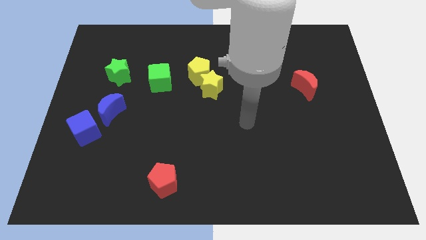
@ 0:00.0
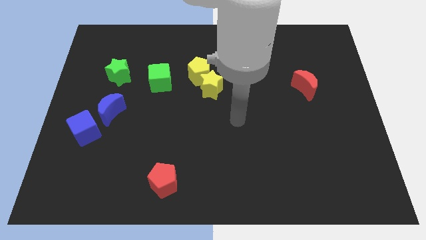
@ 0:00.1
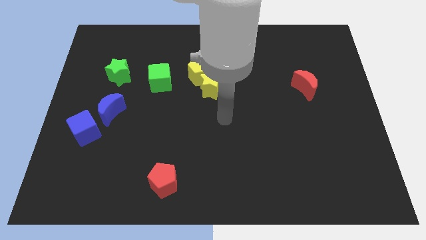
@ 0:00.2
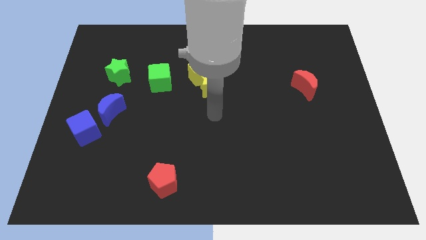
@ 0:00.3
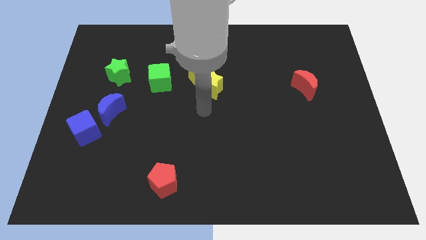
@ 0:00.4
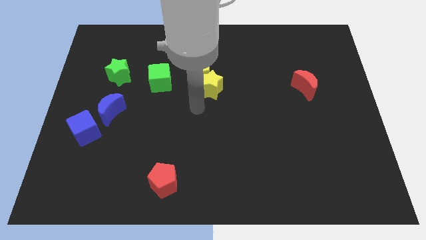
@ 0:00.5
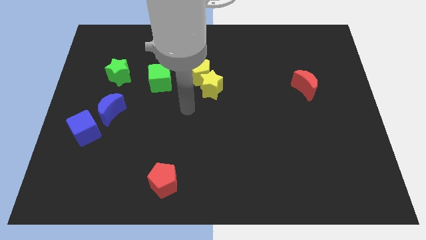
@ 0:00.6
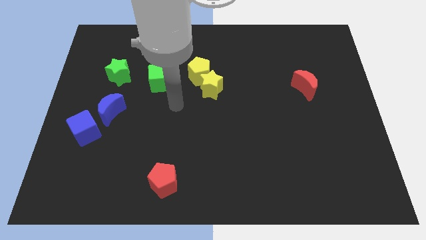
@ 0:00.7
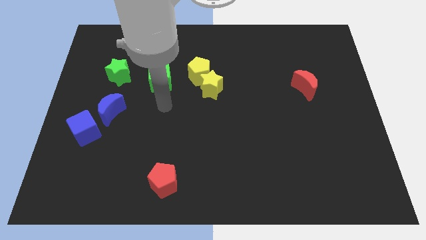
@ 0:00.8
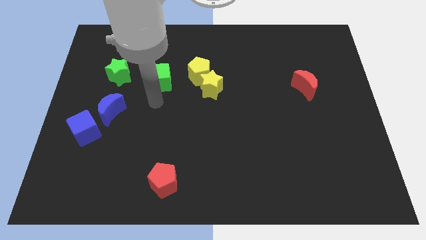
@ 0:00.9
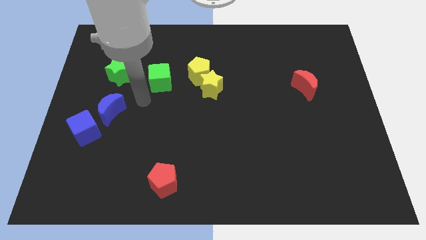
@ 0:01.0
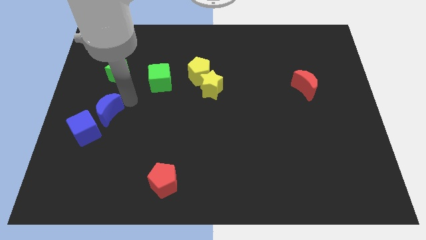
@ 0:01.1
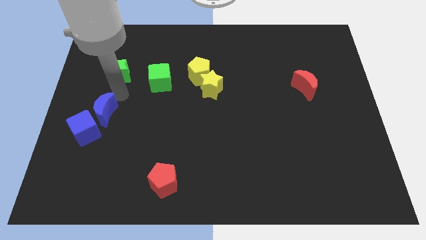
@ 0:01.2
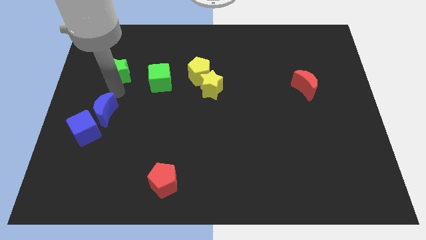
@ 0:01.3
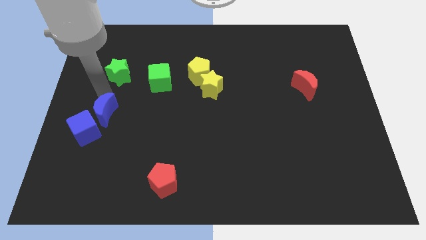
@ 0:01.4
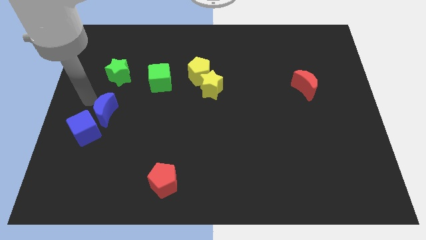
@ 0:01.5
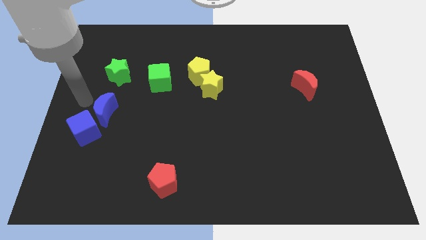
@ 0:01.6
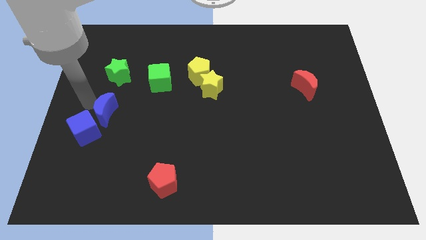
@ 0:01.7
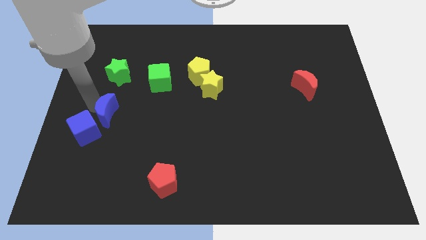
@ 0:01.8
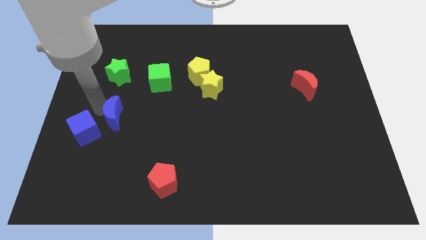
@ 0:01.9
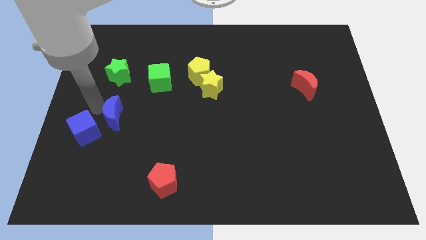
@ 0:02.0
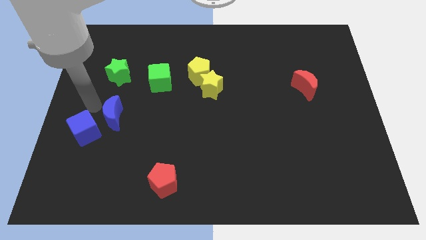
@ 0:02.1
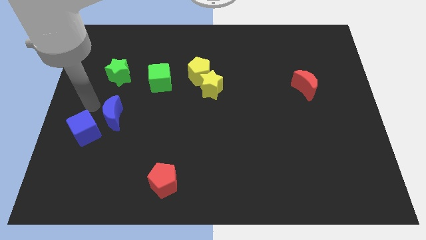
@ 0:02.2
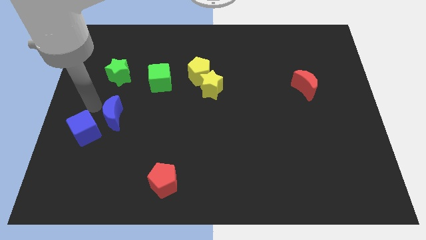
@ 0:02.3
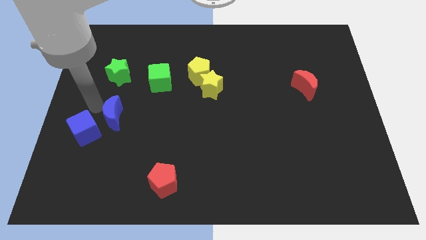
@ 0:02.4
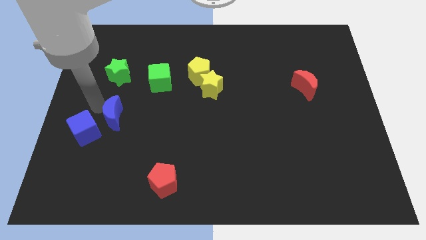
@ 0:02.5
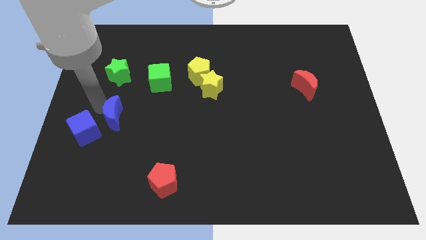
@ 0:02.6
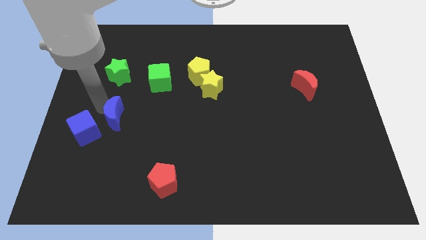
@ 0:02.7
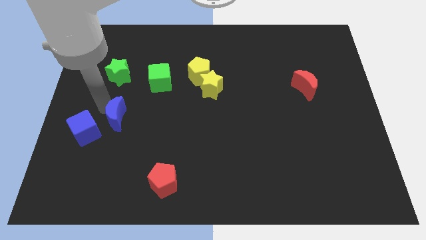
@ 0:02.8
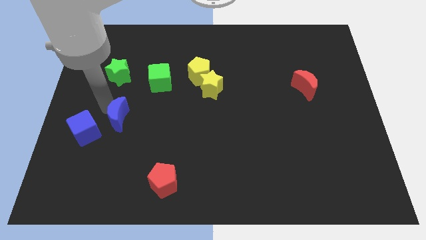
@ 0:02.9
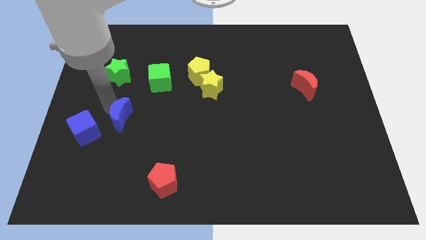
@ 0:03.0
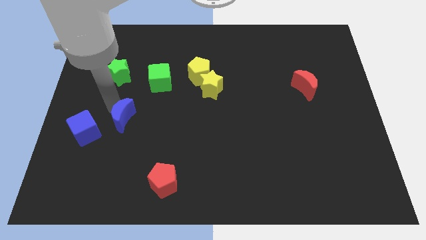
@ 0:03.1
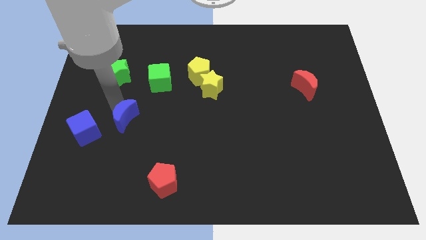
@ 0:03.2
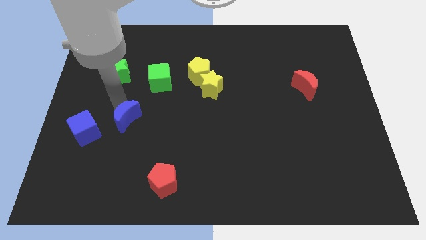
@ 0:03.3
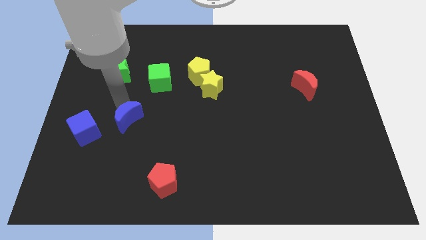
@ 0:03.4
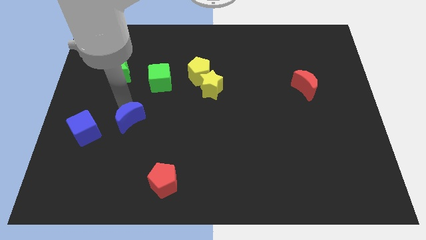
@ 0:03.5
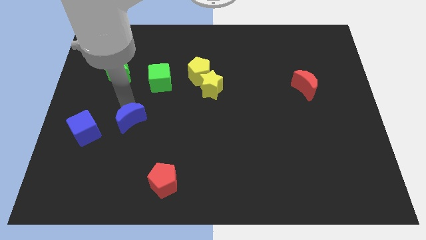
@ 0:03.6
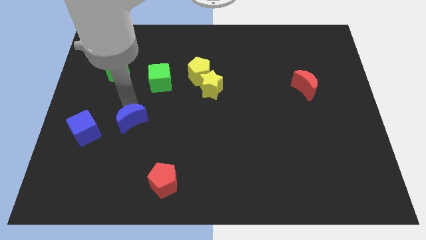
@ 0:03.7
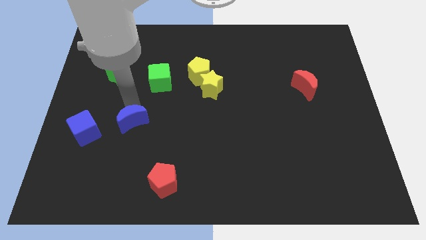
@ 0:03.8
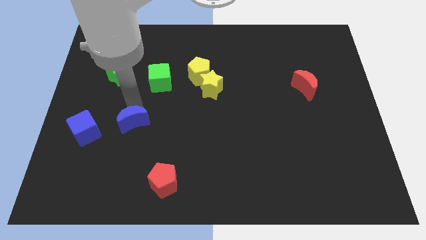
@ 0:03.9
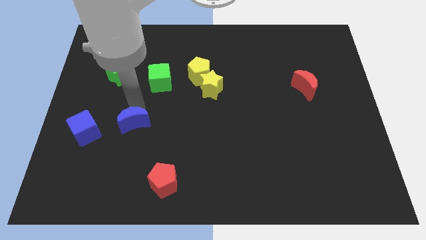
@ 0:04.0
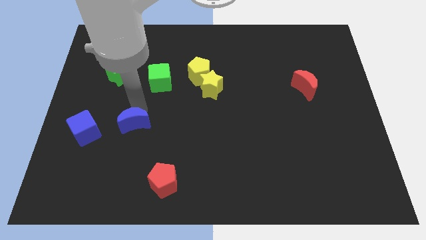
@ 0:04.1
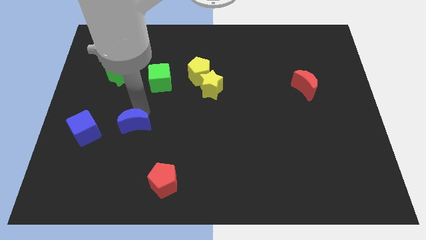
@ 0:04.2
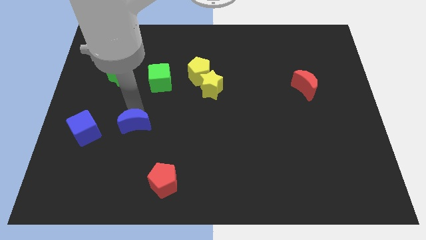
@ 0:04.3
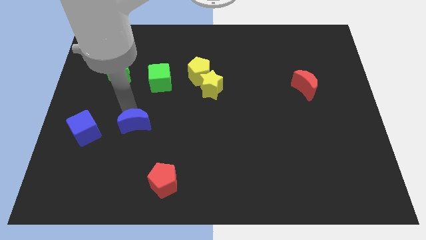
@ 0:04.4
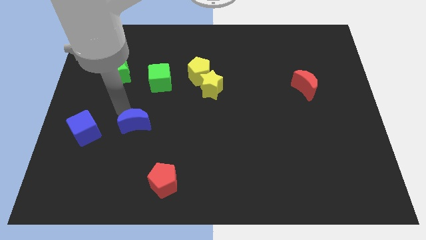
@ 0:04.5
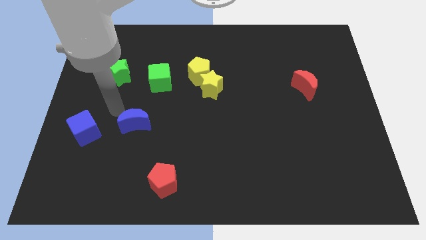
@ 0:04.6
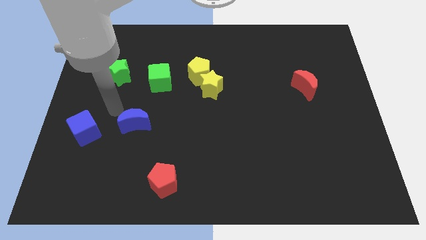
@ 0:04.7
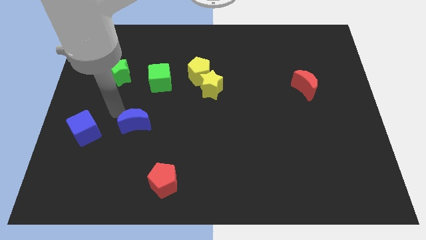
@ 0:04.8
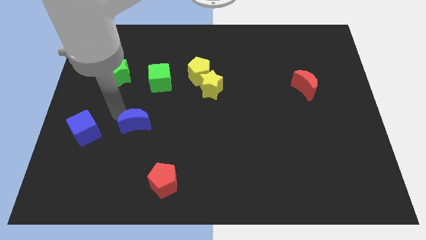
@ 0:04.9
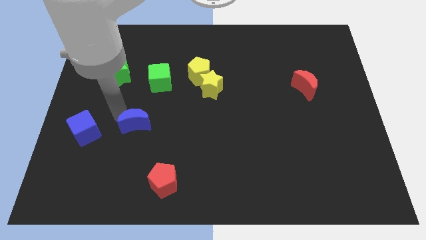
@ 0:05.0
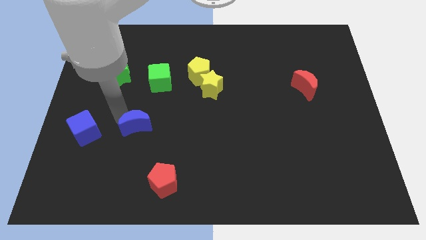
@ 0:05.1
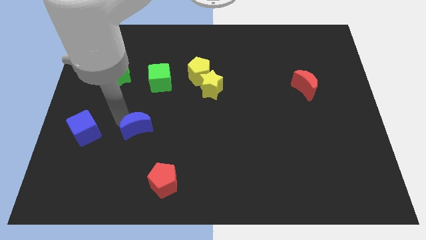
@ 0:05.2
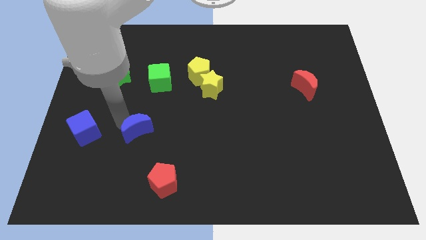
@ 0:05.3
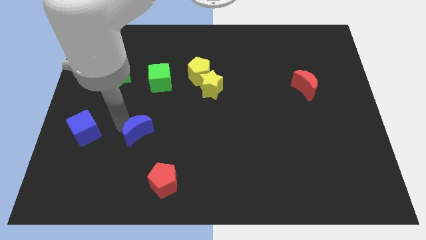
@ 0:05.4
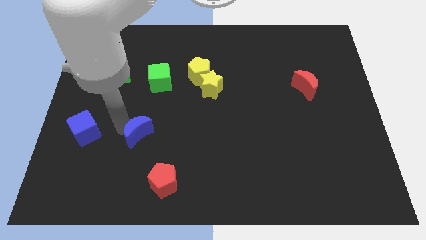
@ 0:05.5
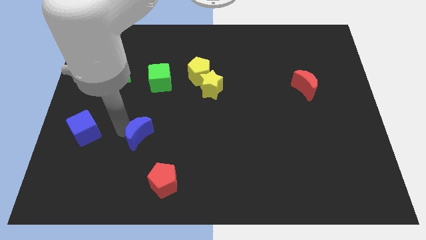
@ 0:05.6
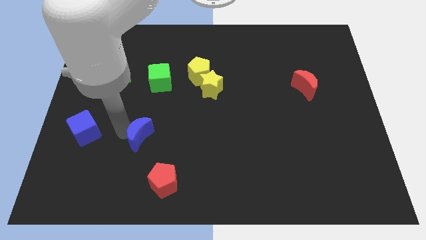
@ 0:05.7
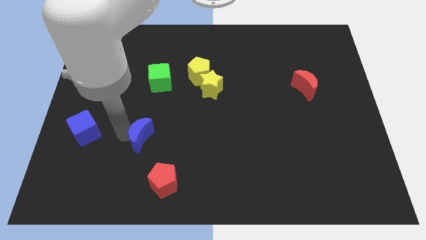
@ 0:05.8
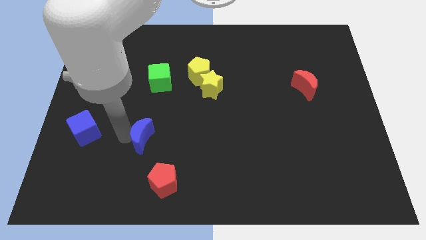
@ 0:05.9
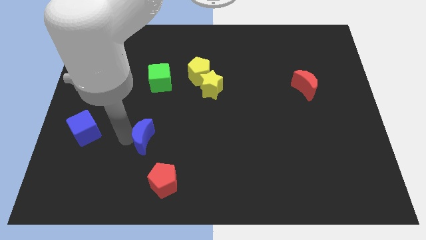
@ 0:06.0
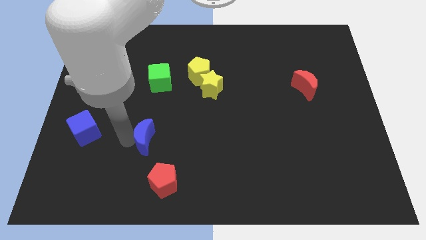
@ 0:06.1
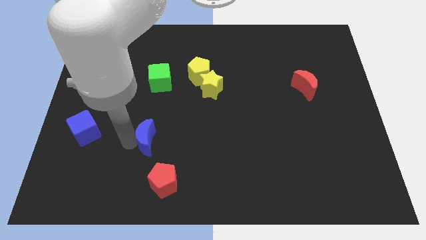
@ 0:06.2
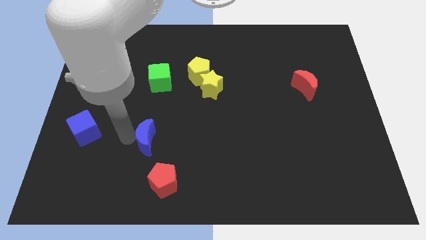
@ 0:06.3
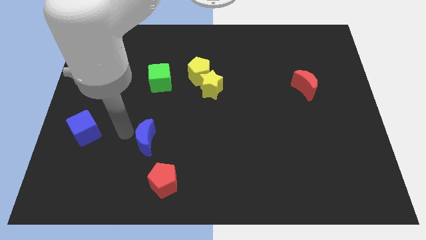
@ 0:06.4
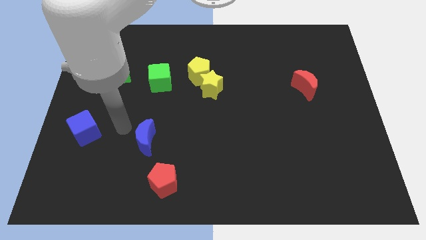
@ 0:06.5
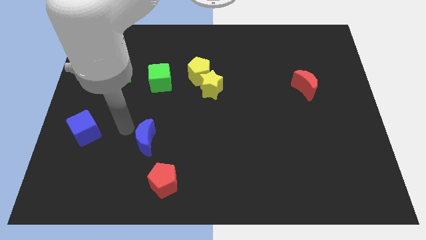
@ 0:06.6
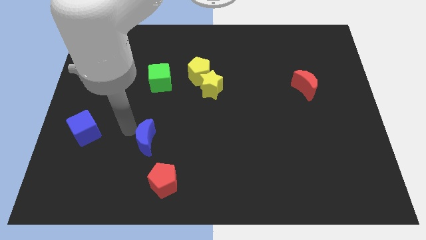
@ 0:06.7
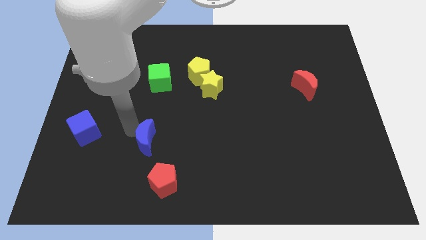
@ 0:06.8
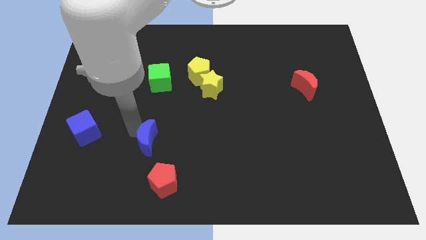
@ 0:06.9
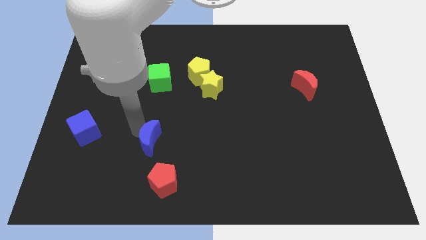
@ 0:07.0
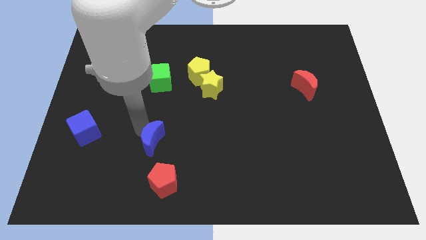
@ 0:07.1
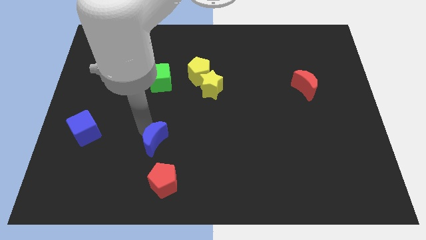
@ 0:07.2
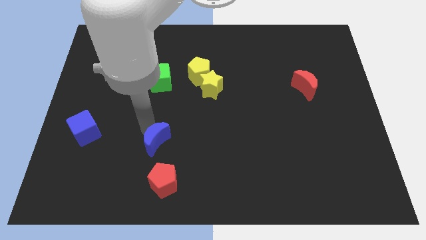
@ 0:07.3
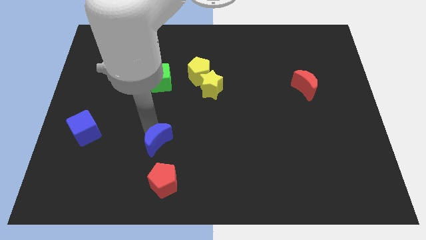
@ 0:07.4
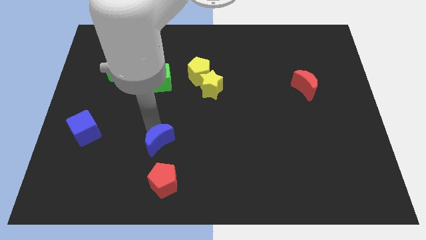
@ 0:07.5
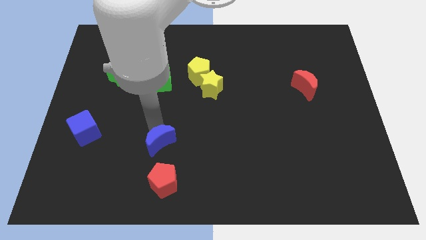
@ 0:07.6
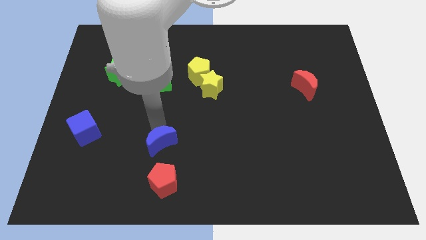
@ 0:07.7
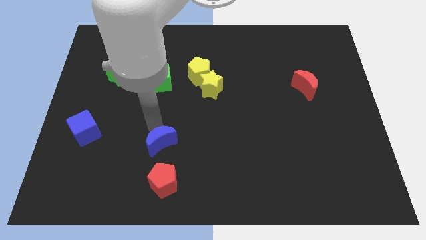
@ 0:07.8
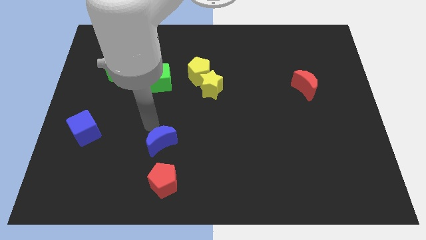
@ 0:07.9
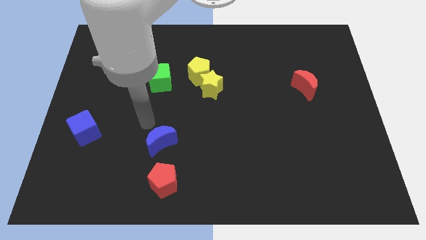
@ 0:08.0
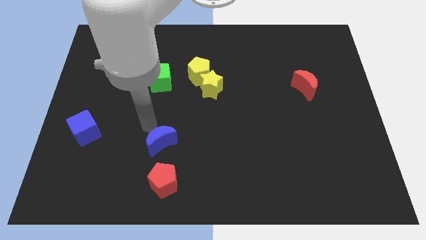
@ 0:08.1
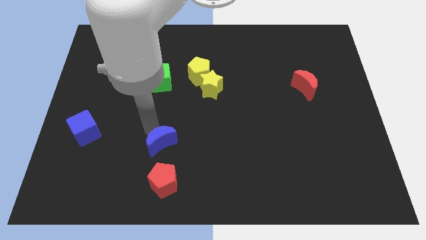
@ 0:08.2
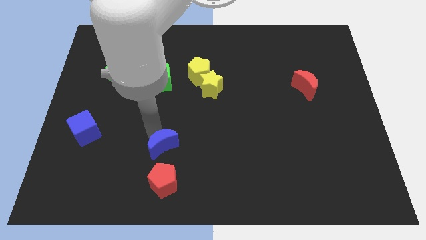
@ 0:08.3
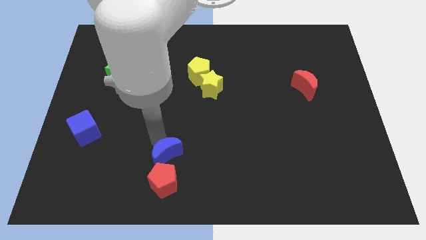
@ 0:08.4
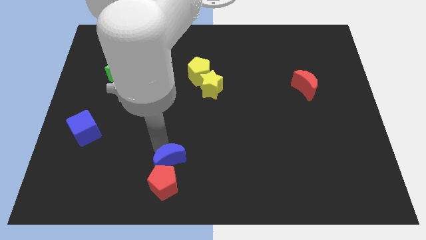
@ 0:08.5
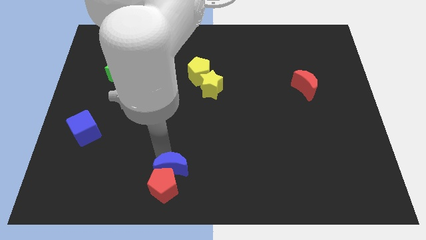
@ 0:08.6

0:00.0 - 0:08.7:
push the blue moon to the bottom
